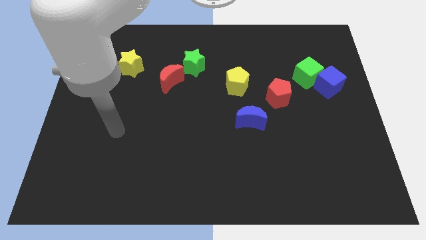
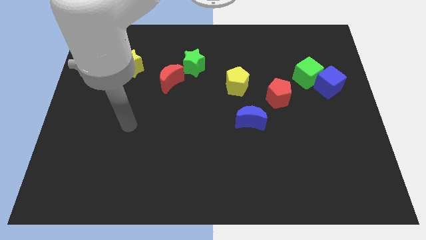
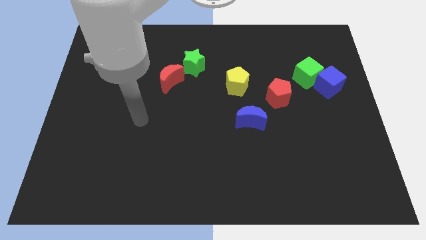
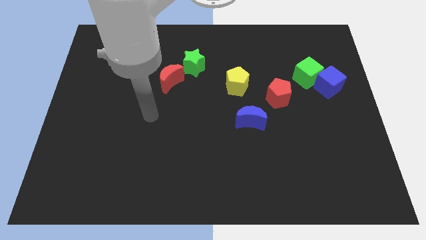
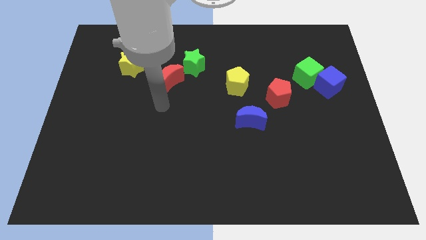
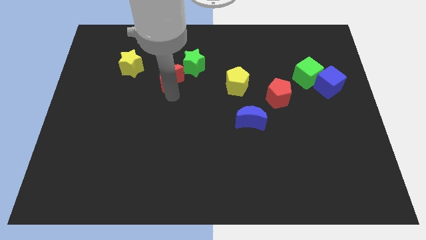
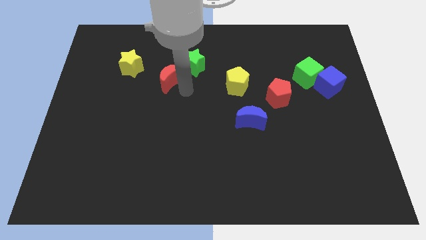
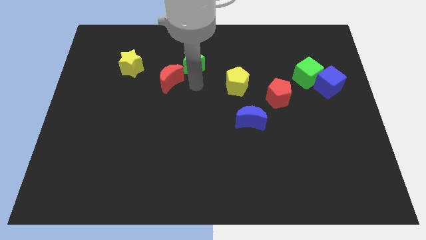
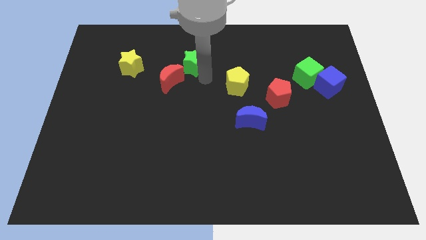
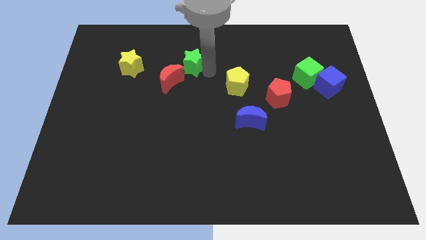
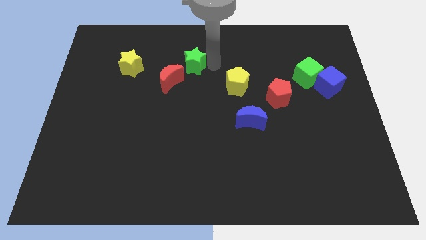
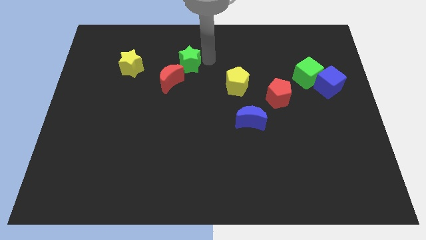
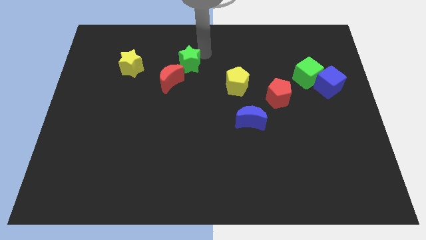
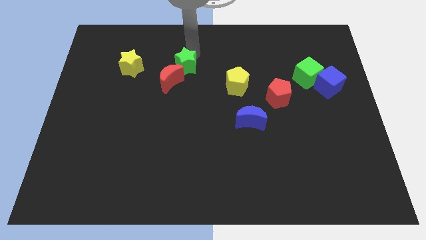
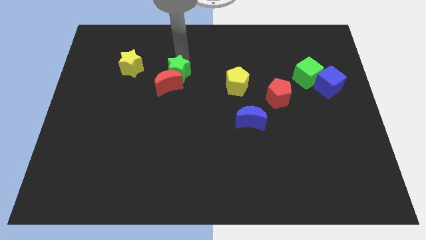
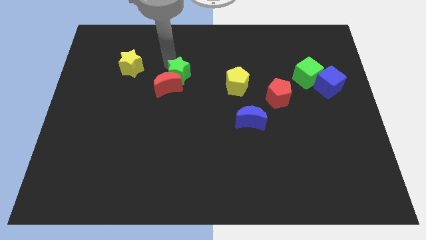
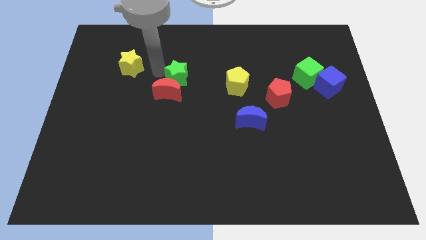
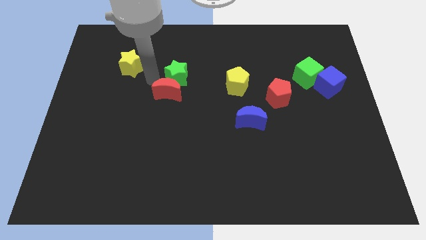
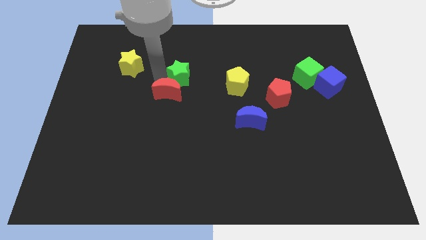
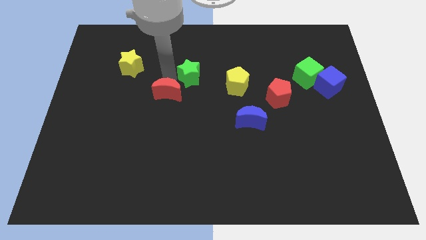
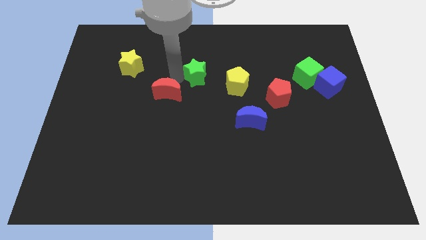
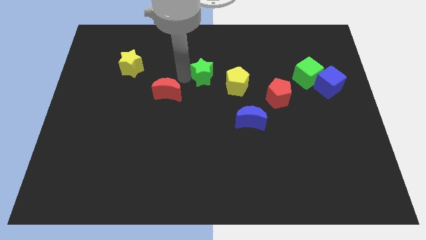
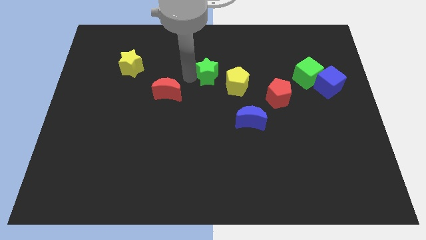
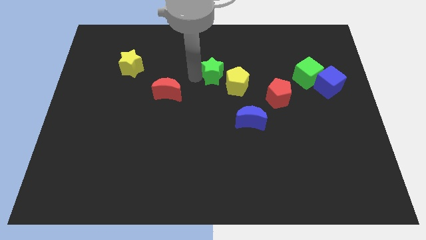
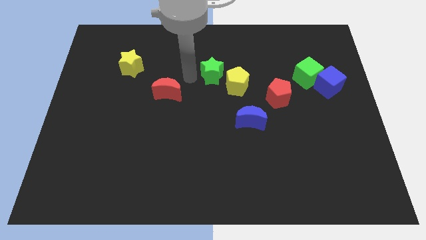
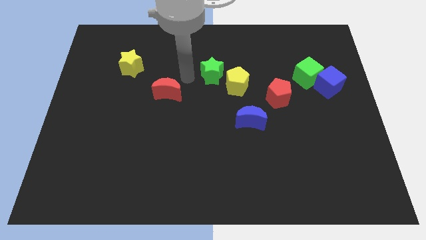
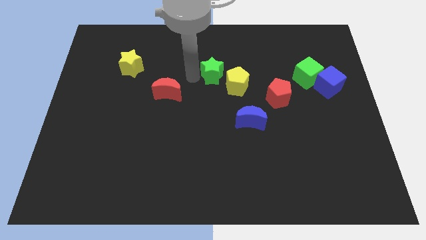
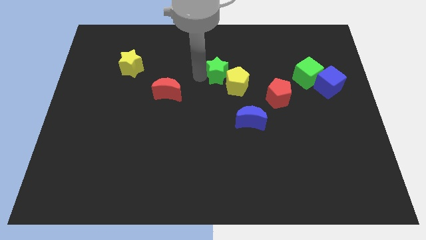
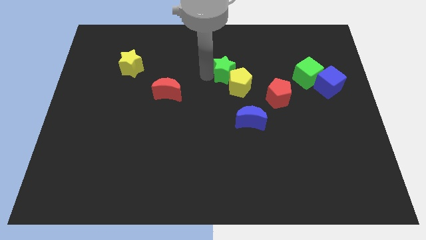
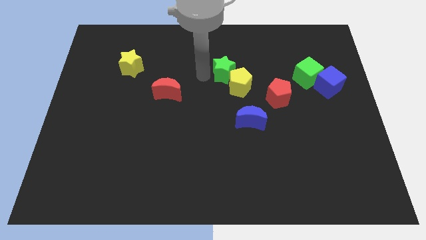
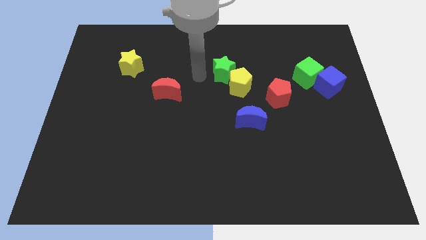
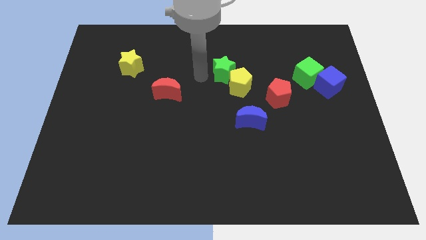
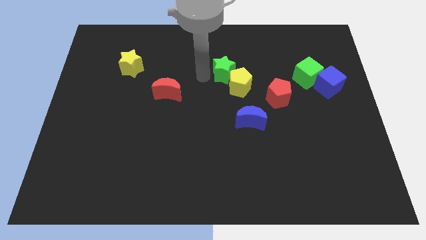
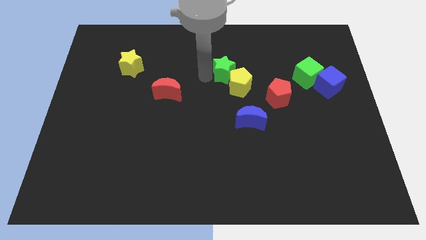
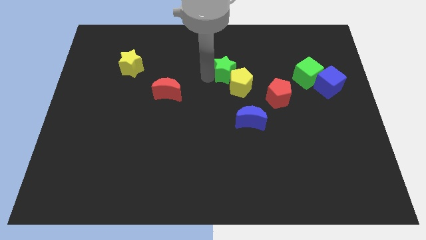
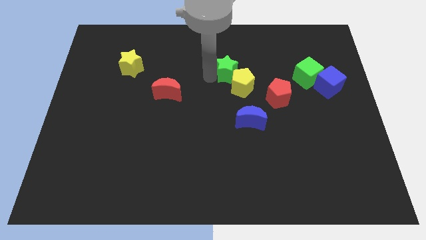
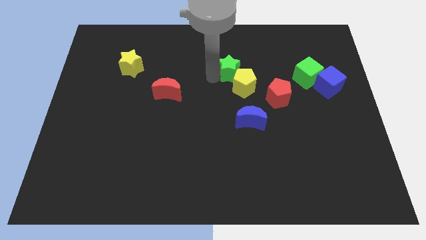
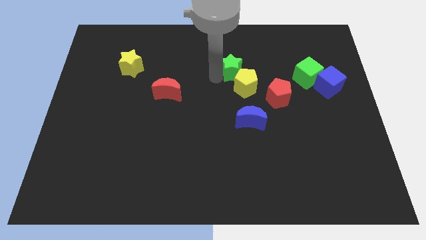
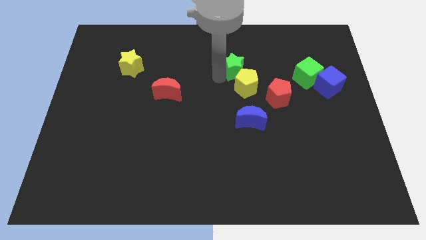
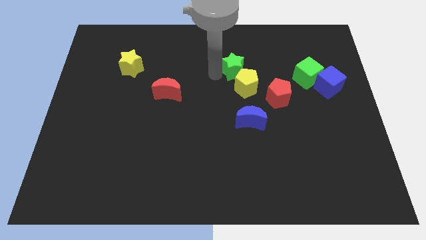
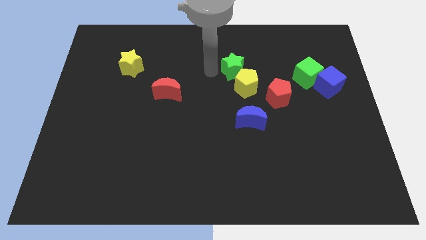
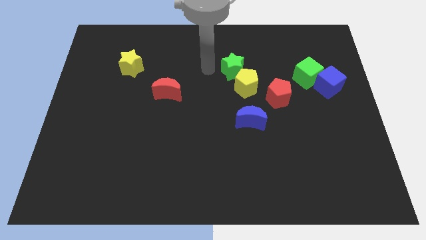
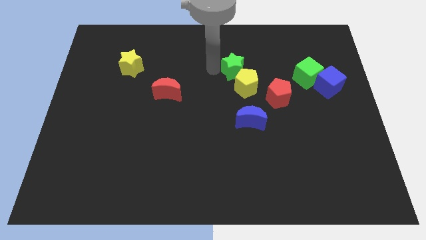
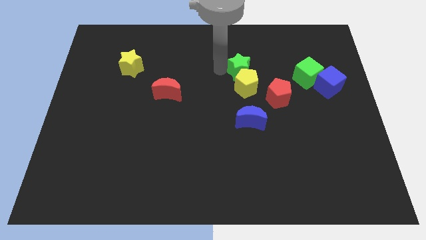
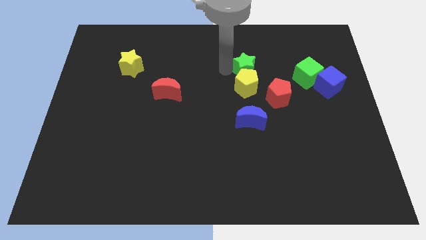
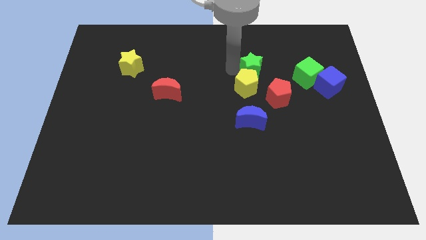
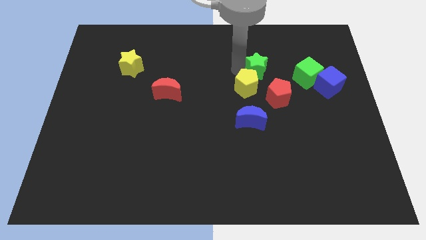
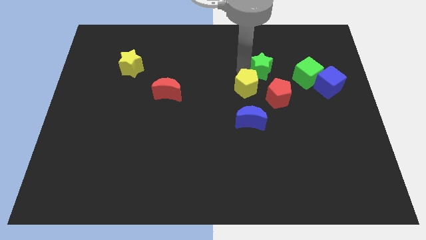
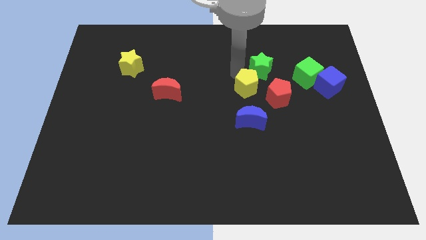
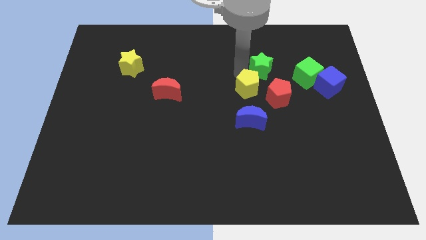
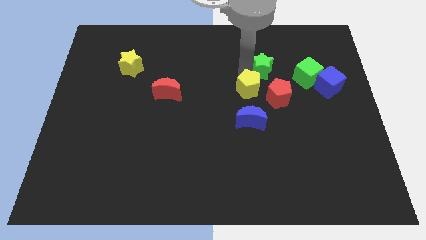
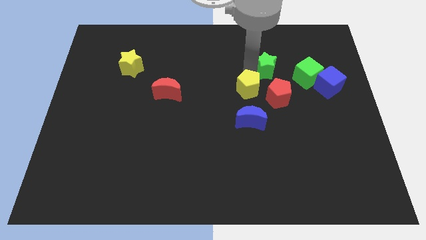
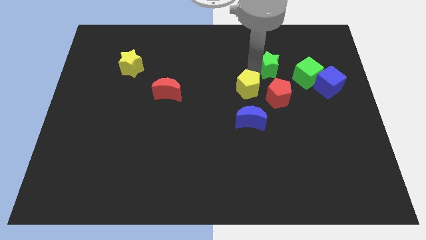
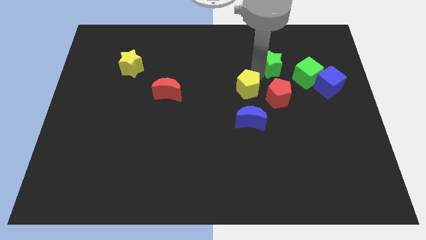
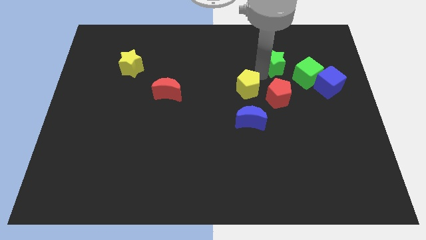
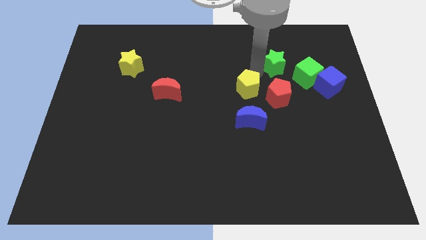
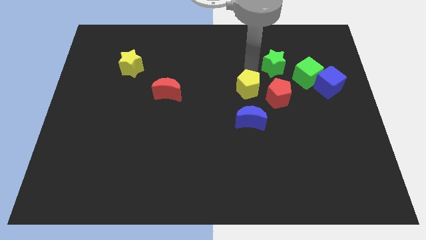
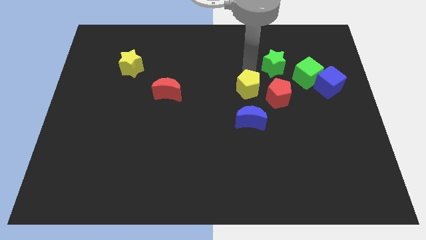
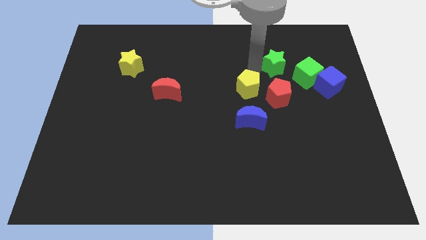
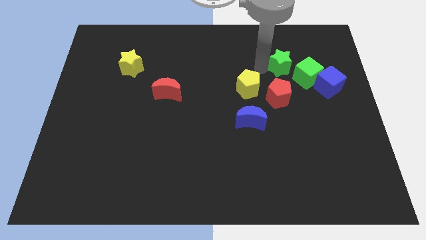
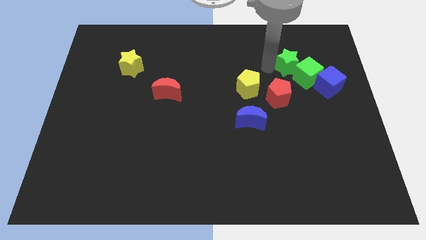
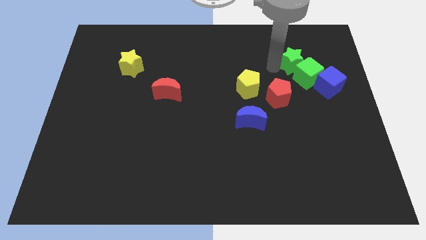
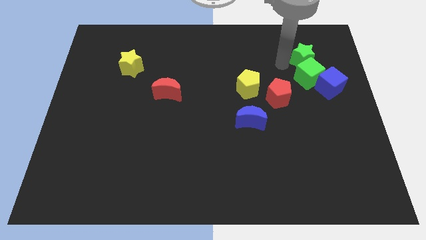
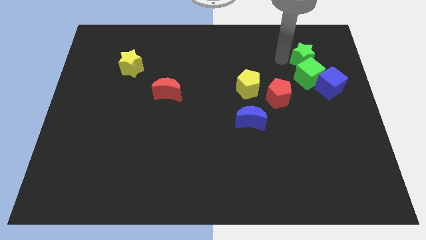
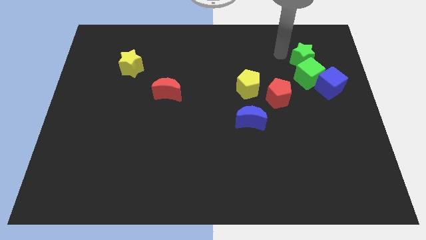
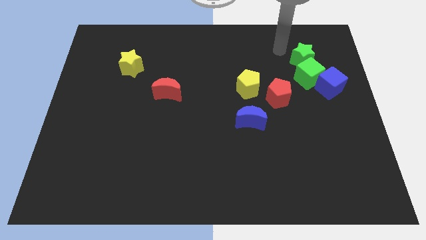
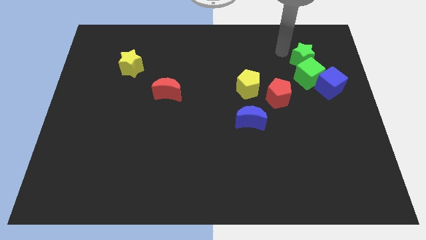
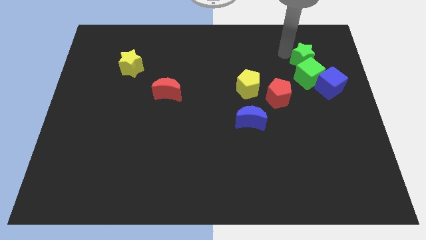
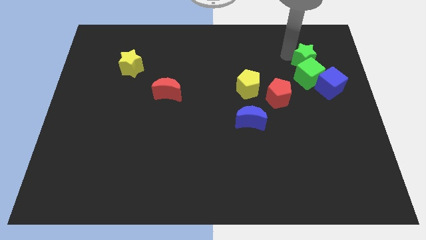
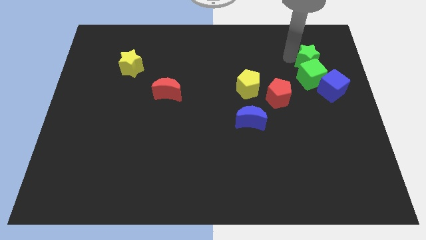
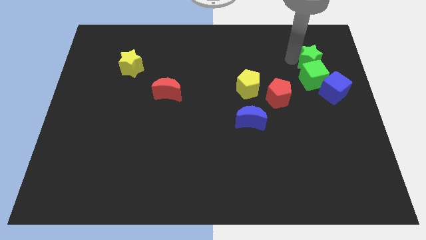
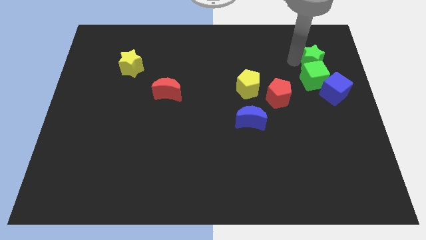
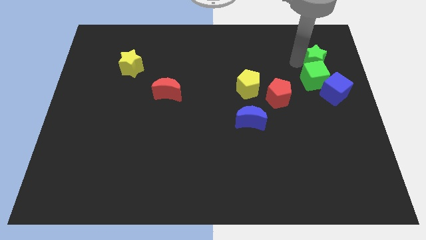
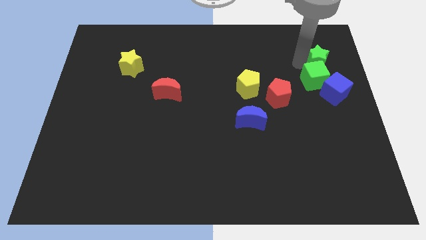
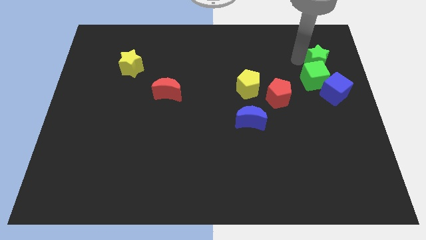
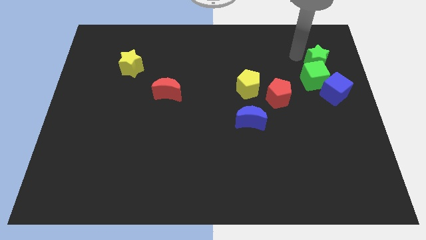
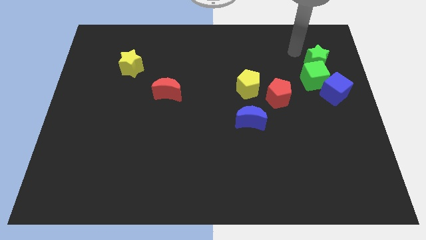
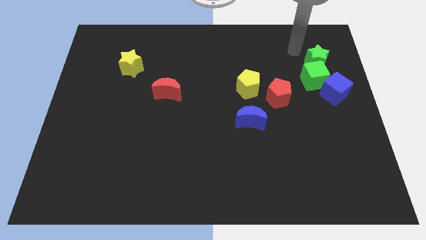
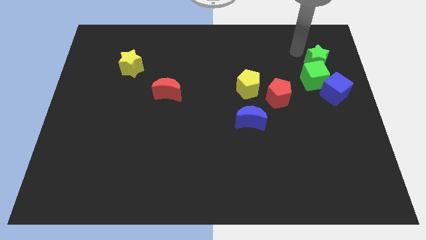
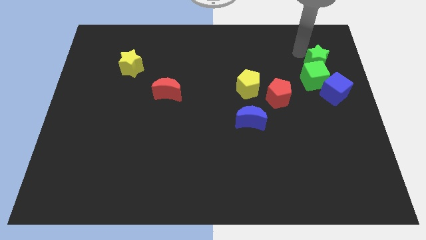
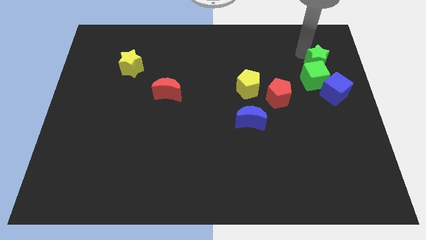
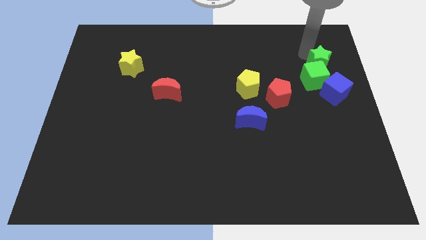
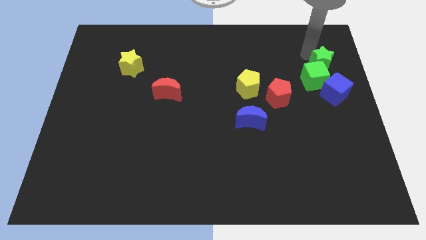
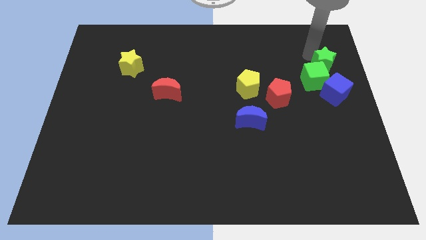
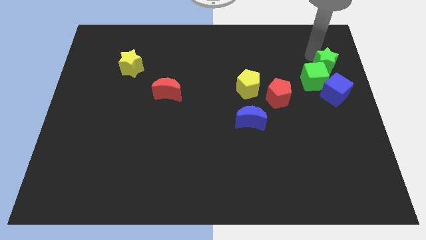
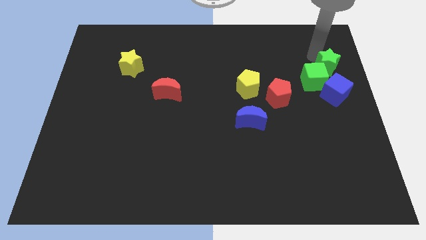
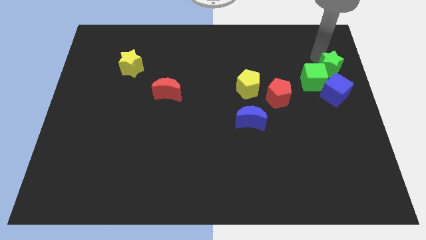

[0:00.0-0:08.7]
push the green star to the center right
